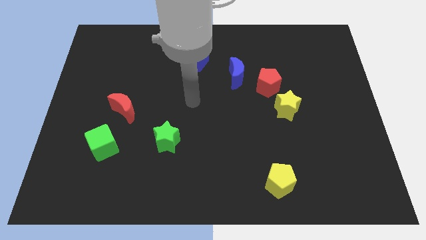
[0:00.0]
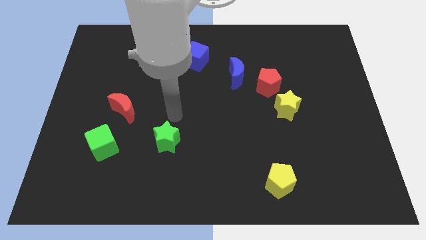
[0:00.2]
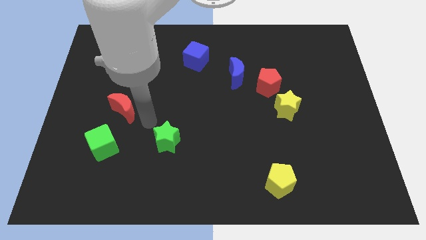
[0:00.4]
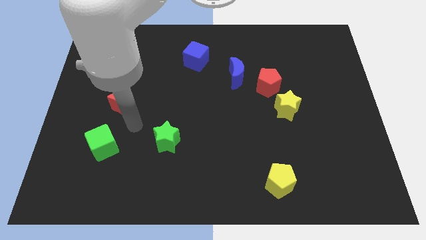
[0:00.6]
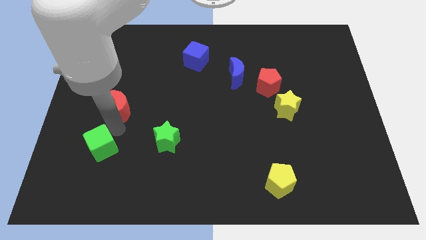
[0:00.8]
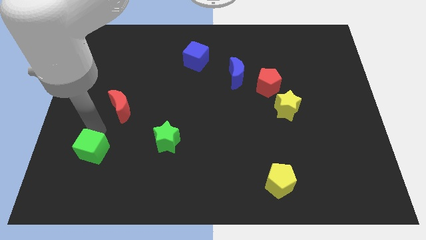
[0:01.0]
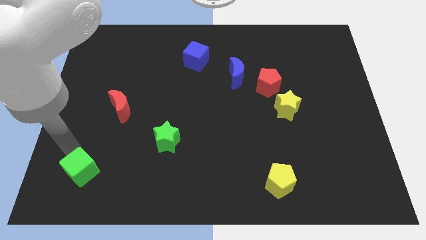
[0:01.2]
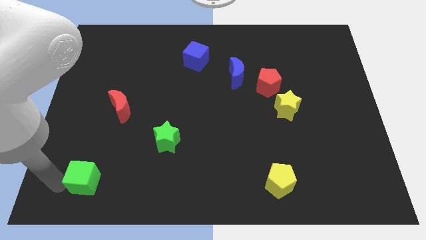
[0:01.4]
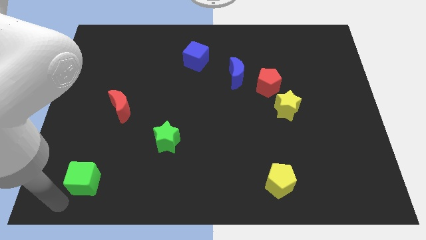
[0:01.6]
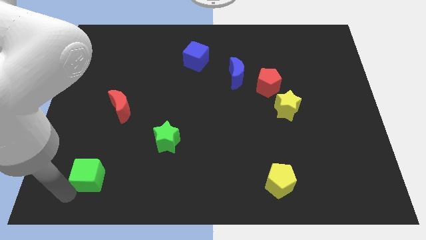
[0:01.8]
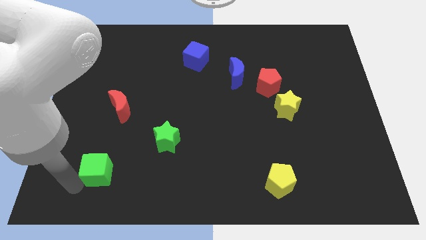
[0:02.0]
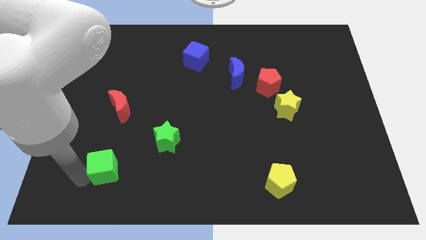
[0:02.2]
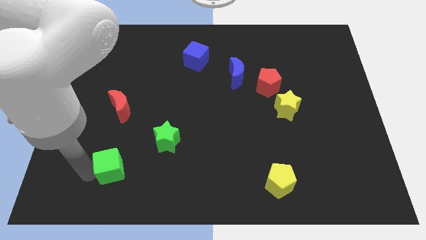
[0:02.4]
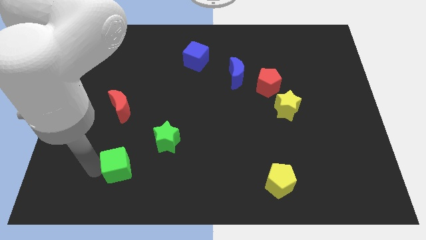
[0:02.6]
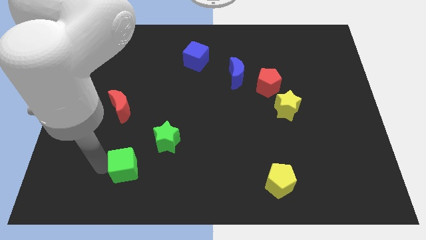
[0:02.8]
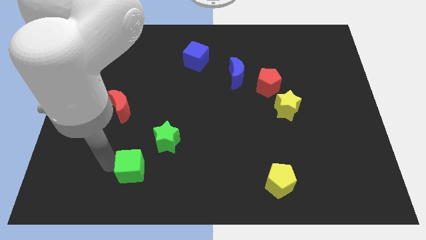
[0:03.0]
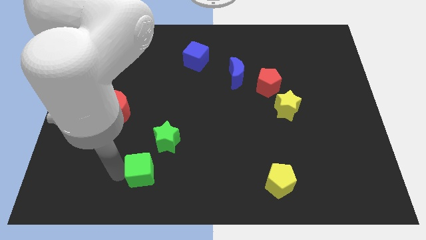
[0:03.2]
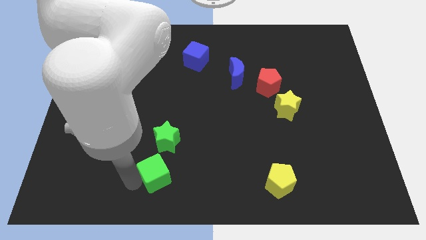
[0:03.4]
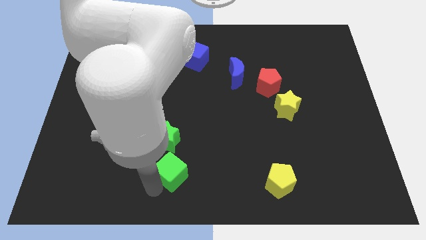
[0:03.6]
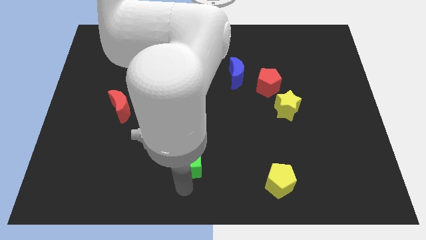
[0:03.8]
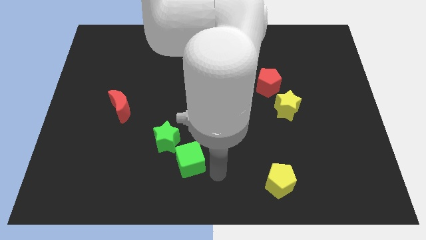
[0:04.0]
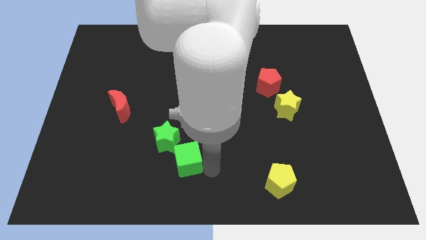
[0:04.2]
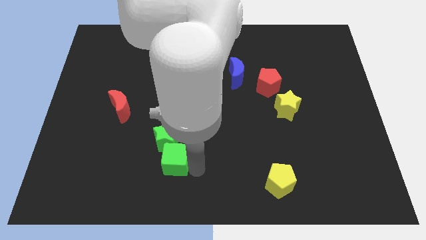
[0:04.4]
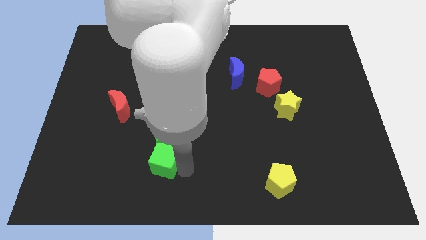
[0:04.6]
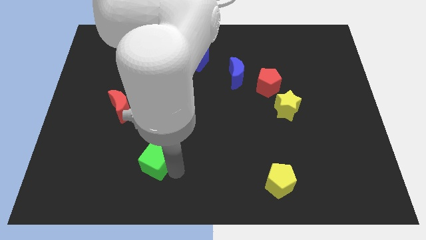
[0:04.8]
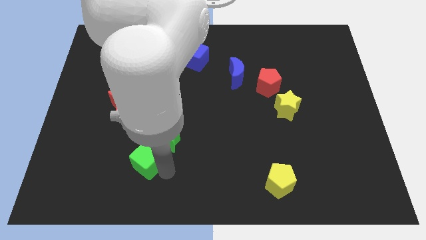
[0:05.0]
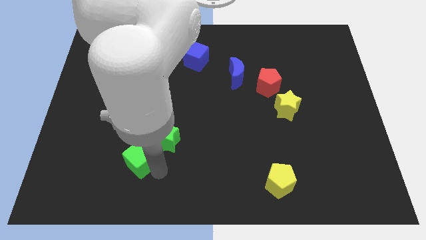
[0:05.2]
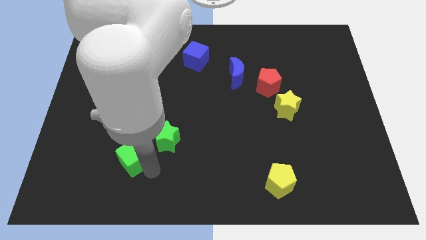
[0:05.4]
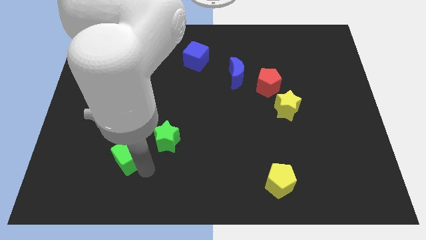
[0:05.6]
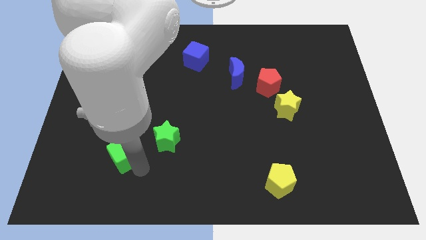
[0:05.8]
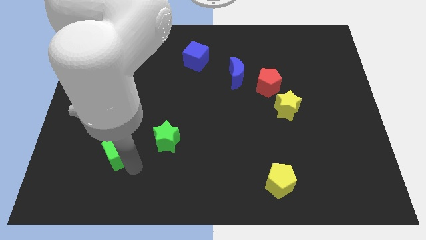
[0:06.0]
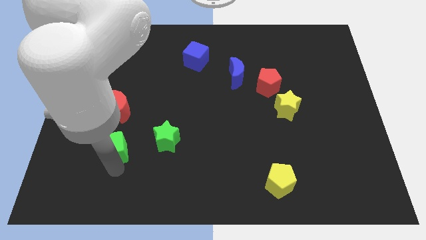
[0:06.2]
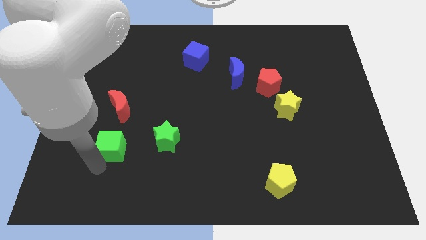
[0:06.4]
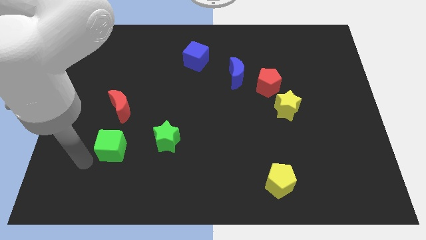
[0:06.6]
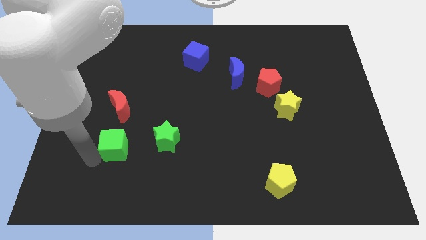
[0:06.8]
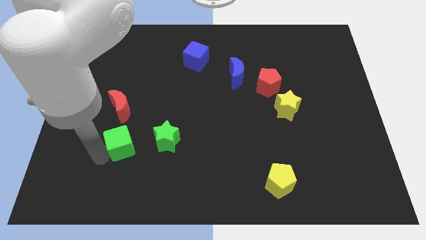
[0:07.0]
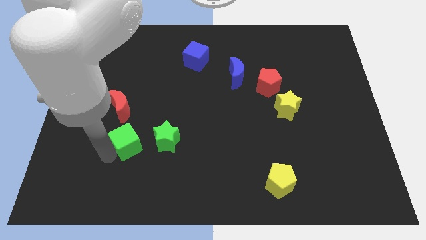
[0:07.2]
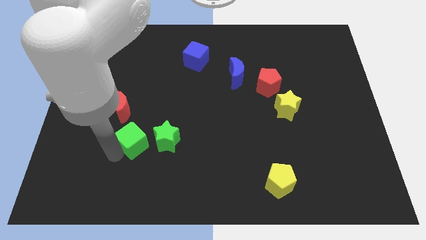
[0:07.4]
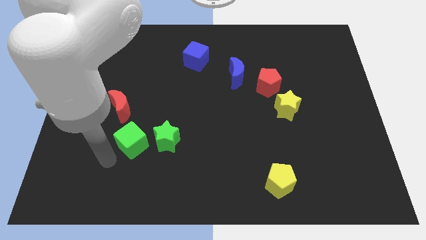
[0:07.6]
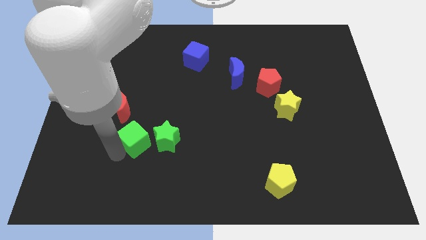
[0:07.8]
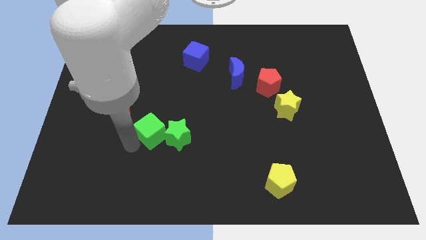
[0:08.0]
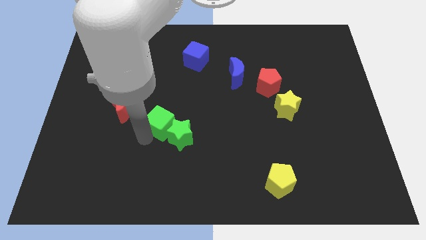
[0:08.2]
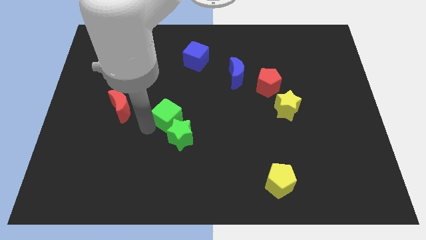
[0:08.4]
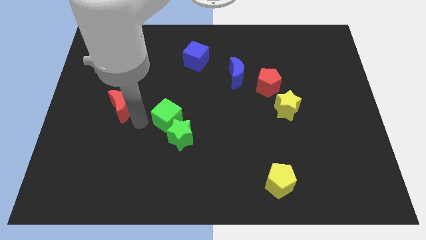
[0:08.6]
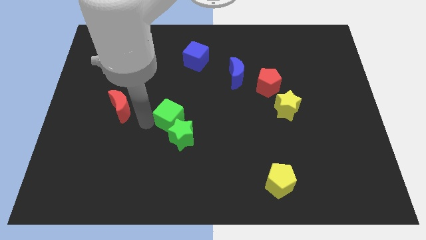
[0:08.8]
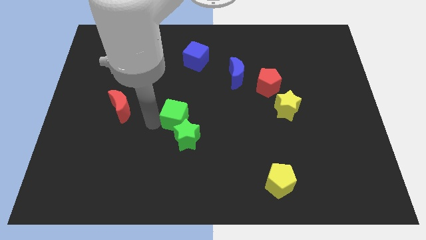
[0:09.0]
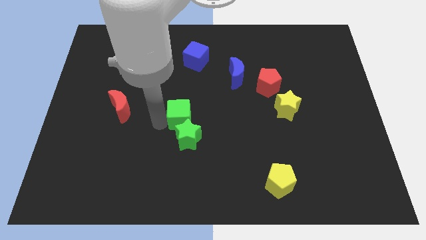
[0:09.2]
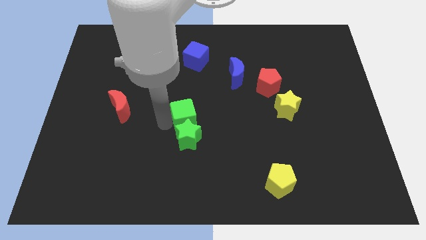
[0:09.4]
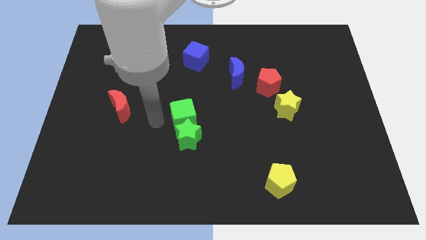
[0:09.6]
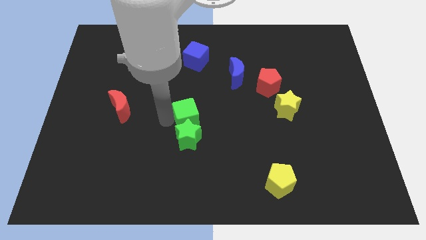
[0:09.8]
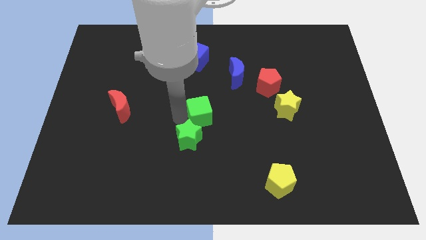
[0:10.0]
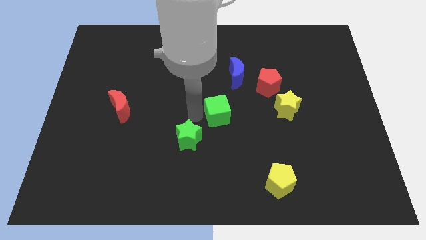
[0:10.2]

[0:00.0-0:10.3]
put the green cube to the bottom of the blue moon

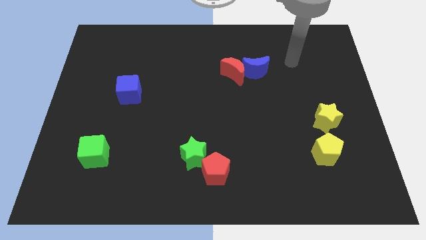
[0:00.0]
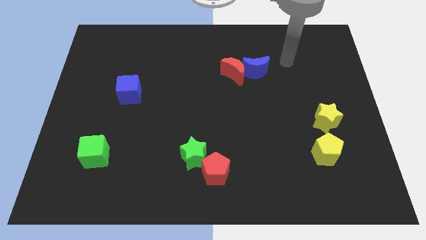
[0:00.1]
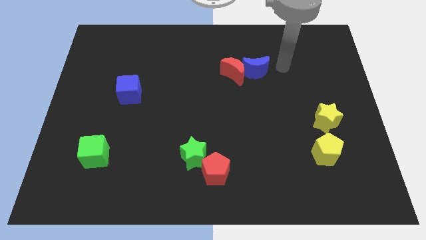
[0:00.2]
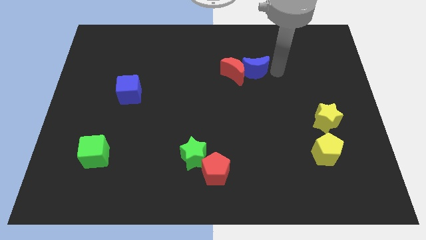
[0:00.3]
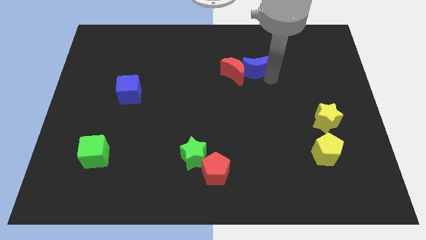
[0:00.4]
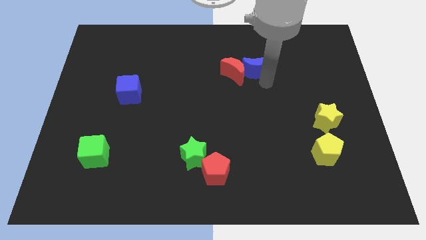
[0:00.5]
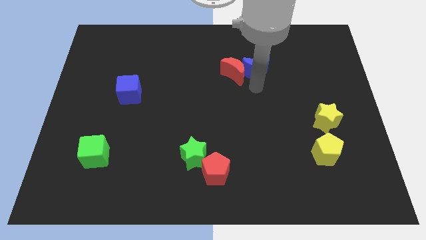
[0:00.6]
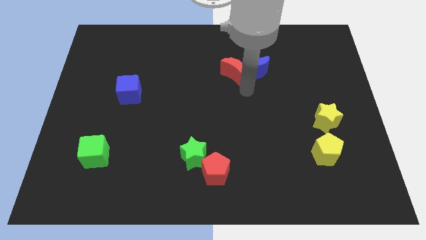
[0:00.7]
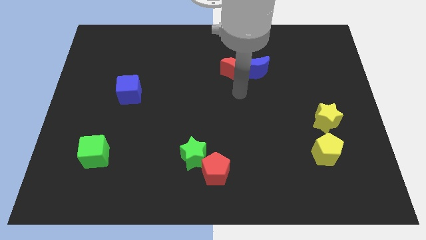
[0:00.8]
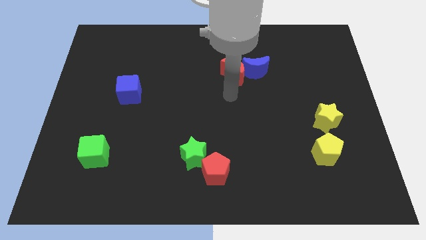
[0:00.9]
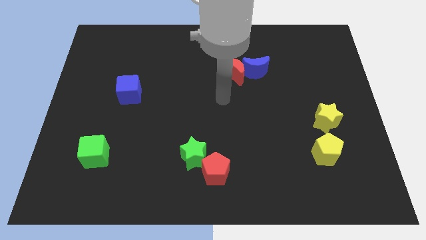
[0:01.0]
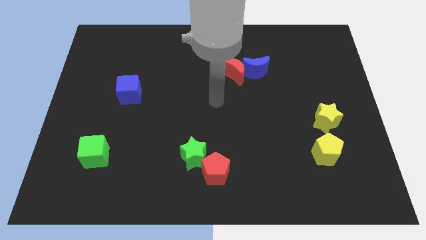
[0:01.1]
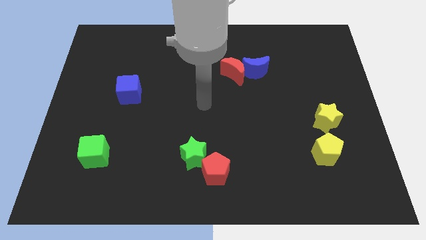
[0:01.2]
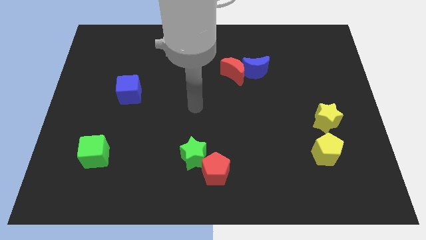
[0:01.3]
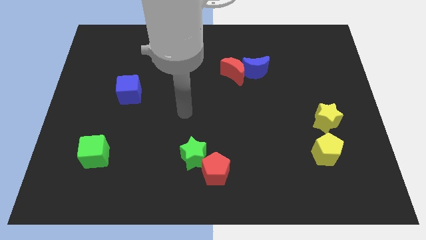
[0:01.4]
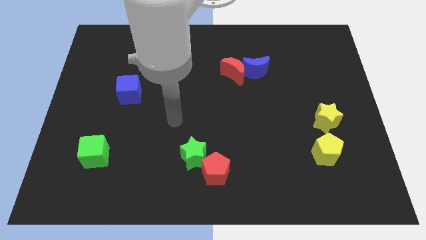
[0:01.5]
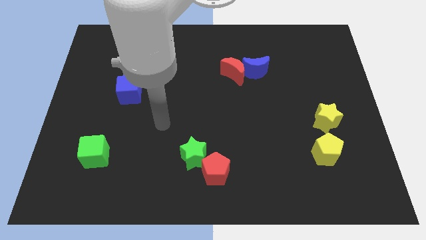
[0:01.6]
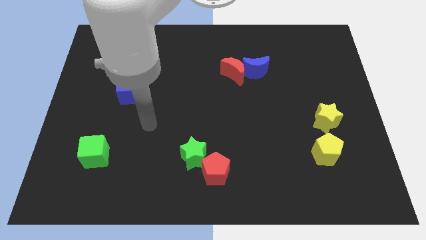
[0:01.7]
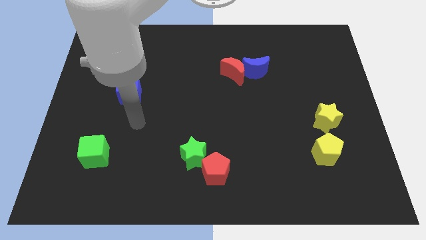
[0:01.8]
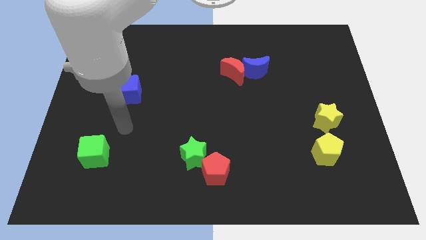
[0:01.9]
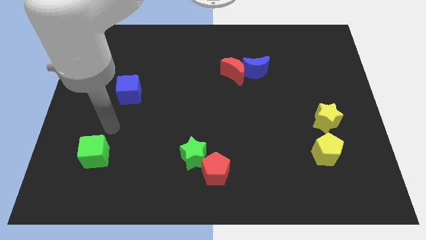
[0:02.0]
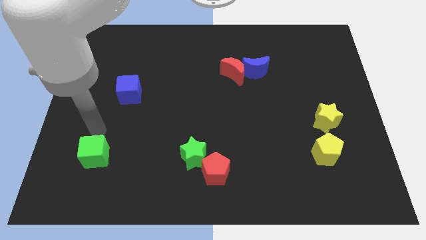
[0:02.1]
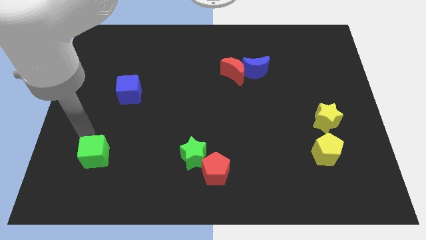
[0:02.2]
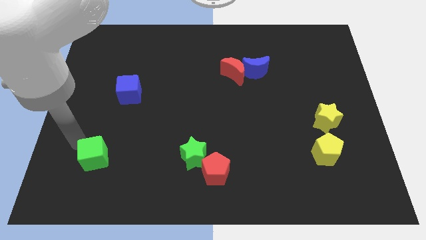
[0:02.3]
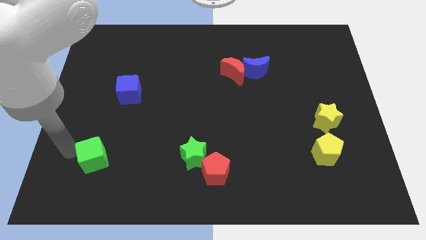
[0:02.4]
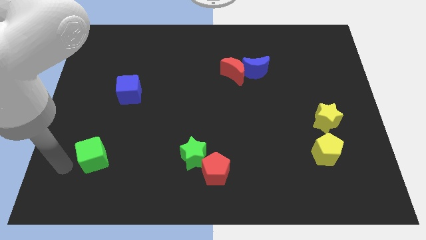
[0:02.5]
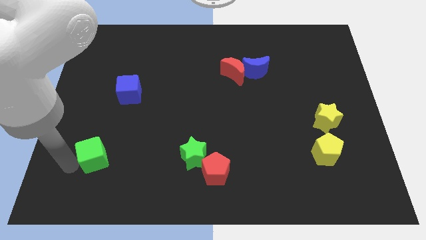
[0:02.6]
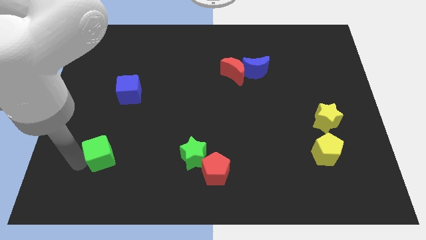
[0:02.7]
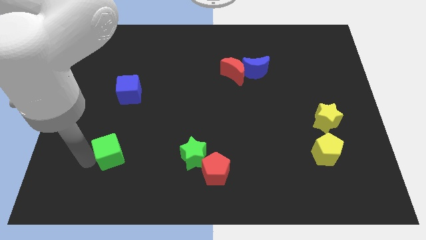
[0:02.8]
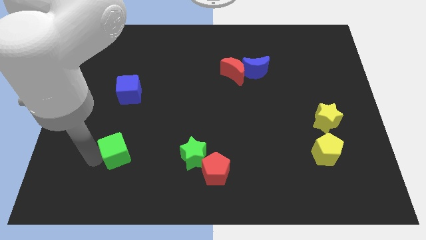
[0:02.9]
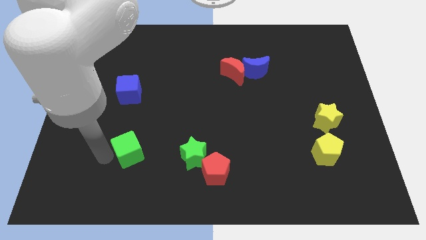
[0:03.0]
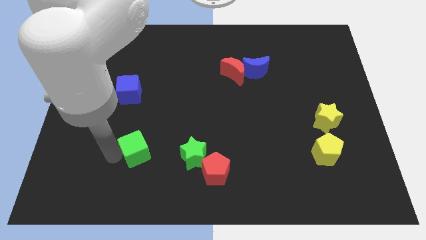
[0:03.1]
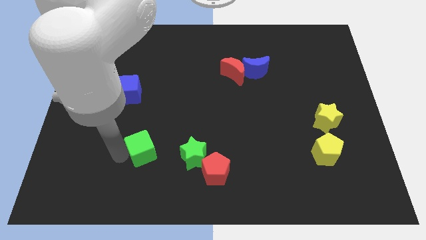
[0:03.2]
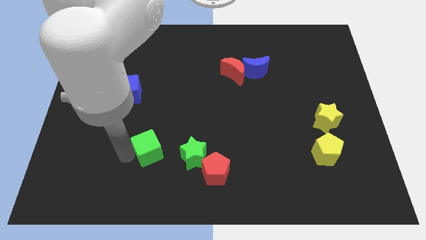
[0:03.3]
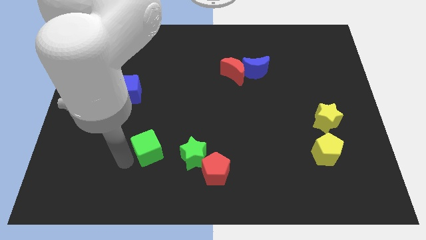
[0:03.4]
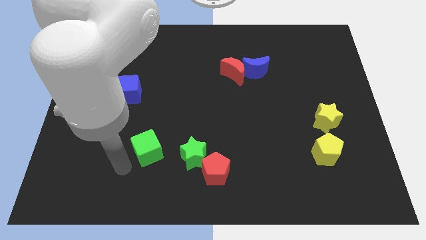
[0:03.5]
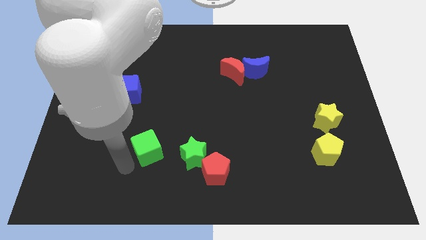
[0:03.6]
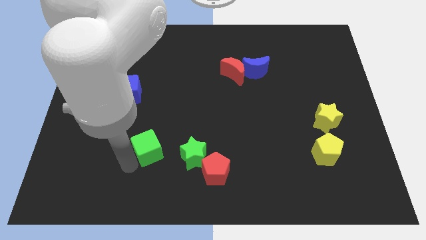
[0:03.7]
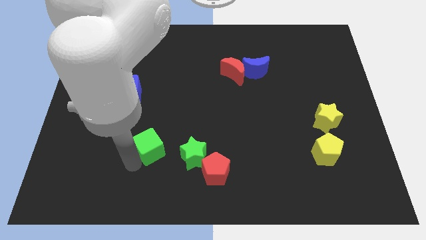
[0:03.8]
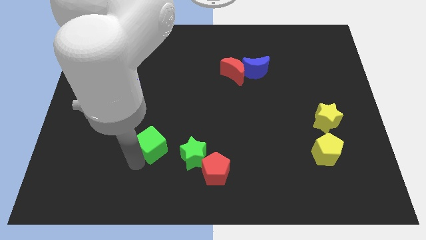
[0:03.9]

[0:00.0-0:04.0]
move the green cube to the top left of the green star
